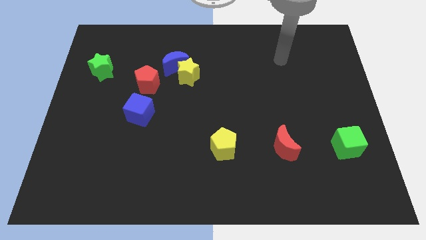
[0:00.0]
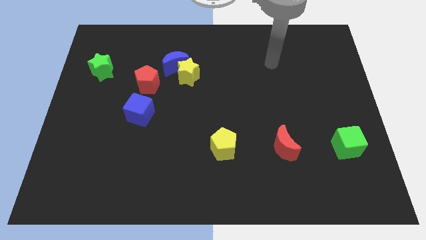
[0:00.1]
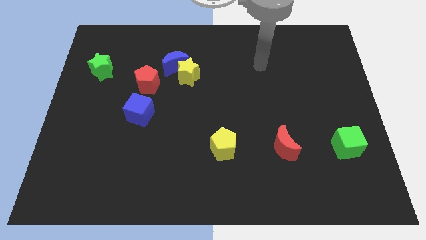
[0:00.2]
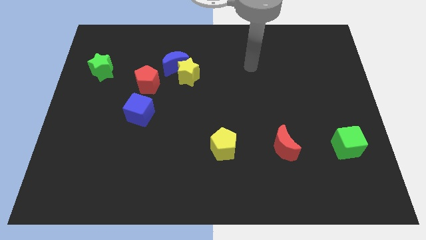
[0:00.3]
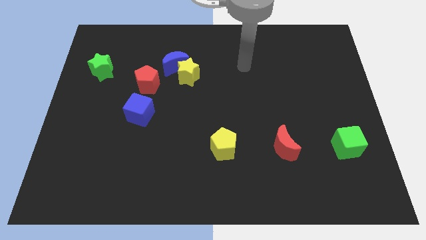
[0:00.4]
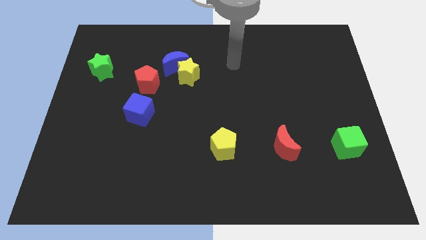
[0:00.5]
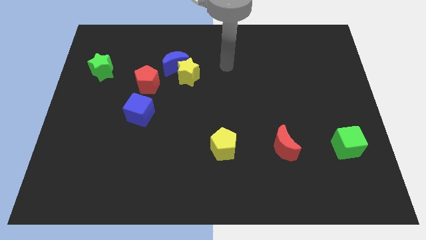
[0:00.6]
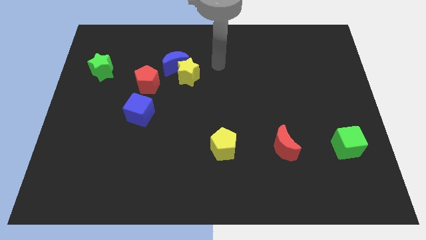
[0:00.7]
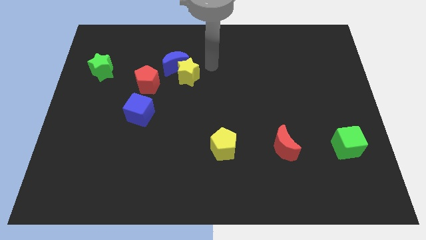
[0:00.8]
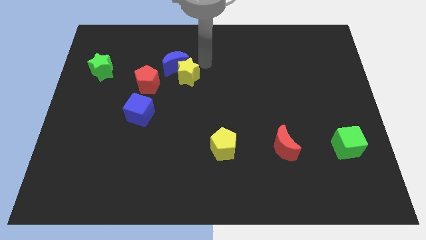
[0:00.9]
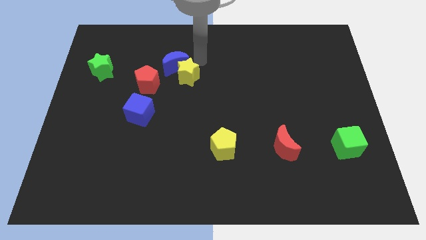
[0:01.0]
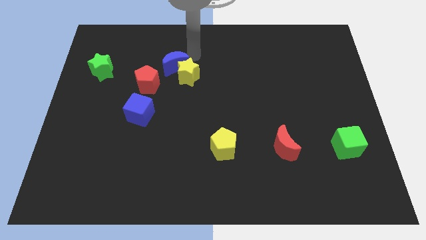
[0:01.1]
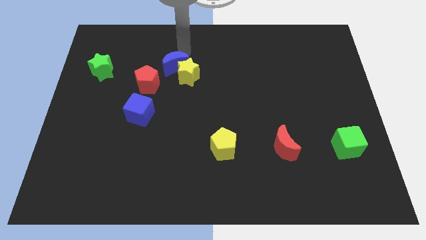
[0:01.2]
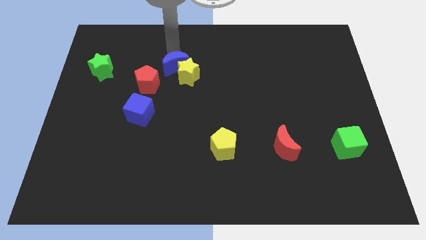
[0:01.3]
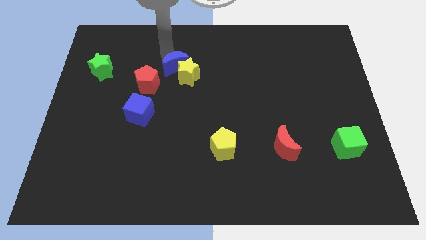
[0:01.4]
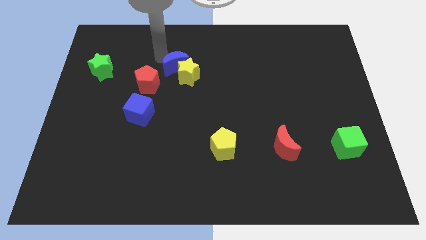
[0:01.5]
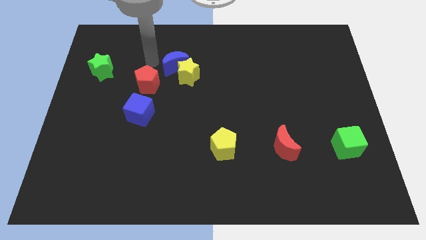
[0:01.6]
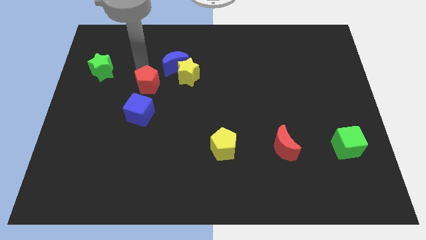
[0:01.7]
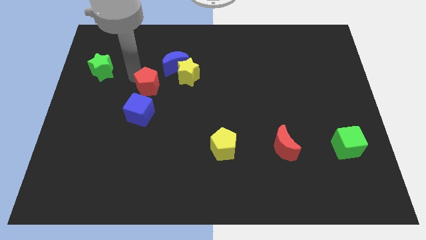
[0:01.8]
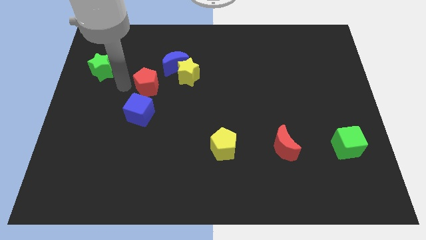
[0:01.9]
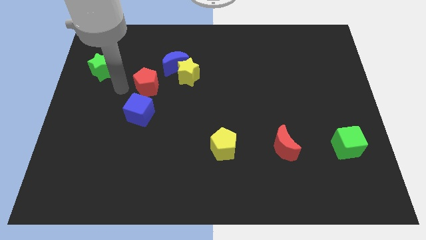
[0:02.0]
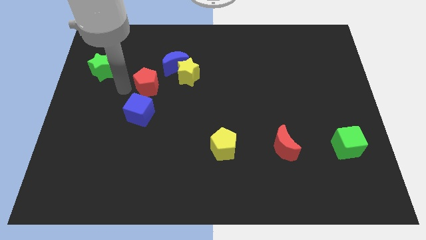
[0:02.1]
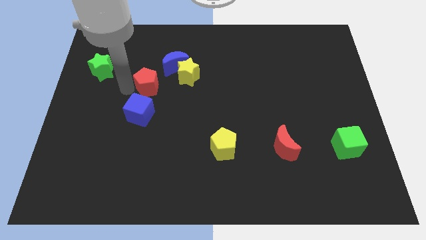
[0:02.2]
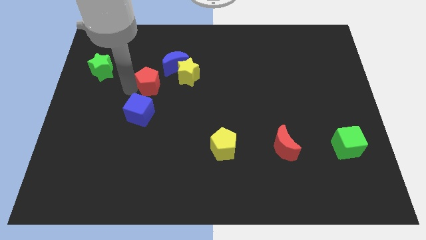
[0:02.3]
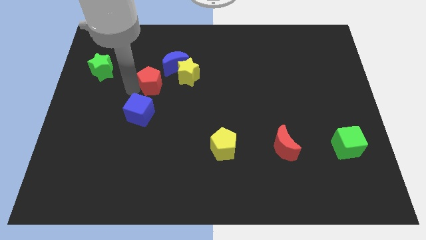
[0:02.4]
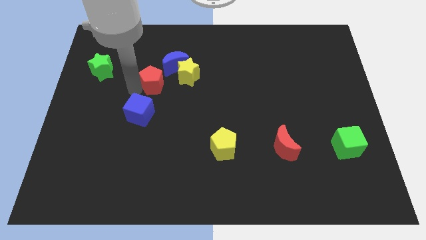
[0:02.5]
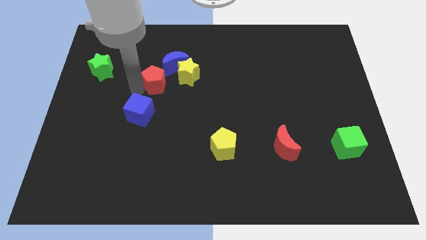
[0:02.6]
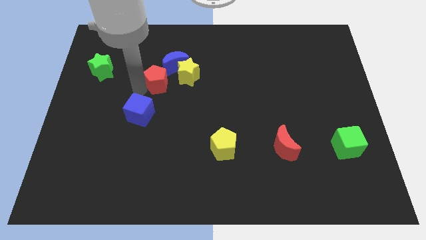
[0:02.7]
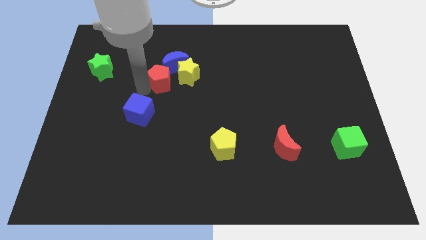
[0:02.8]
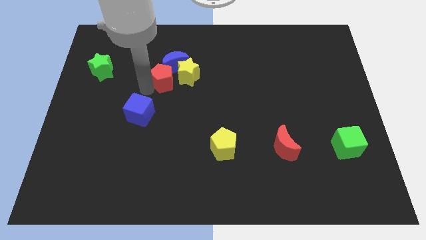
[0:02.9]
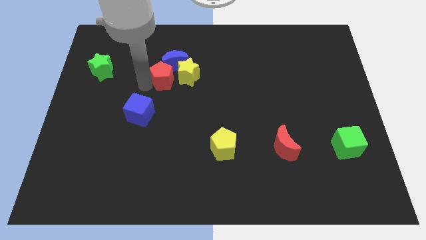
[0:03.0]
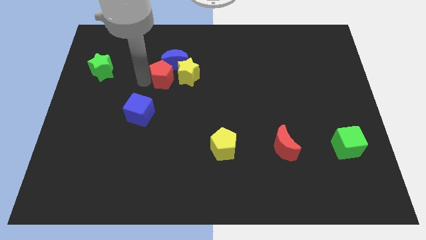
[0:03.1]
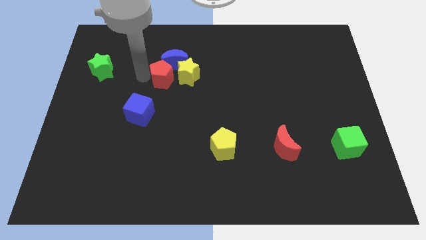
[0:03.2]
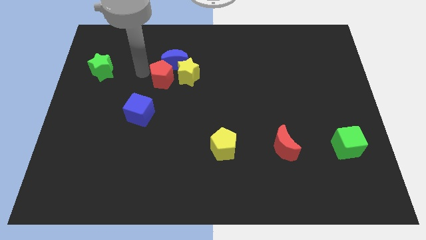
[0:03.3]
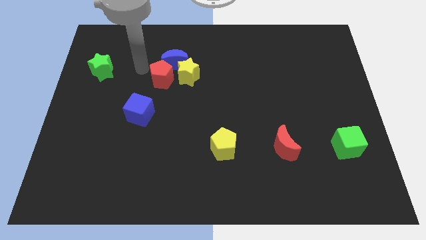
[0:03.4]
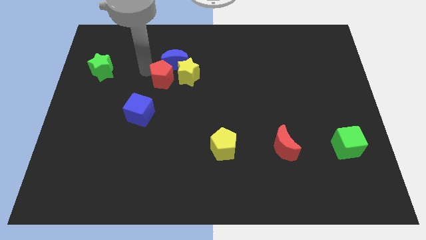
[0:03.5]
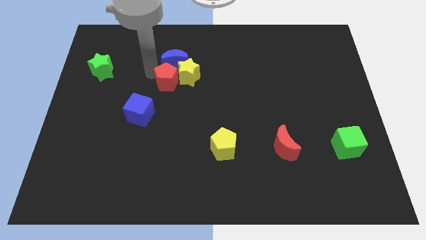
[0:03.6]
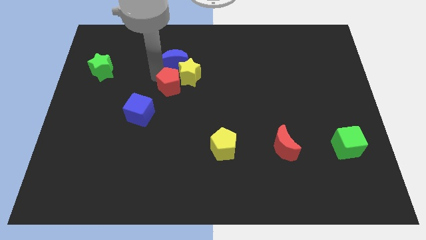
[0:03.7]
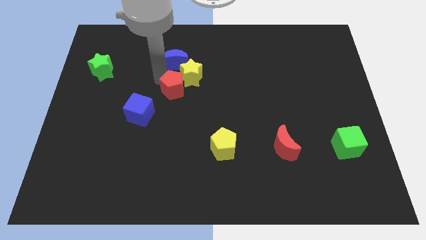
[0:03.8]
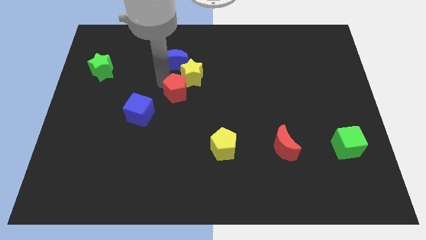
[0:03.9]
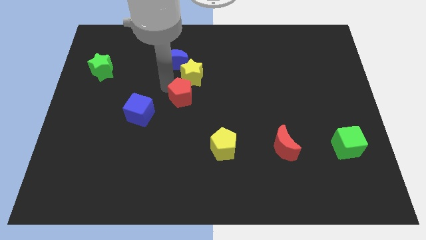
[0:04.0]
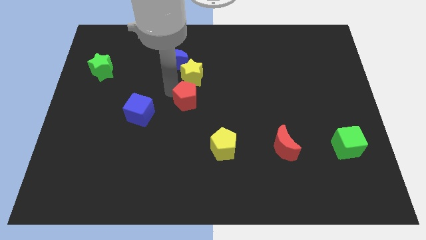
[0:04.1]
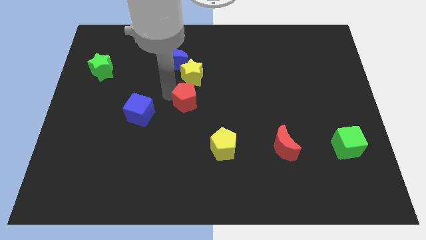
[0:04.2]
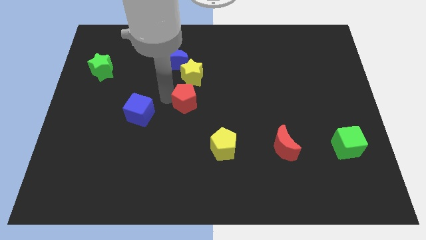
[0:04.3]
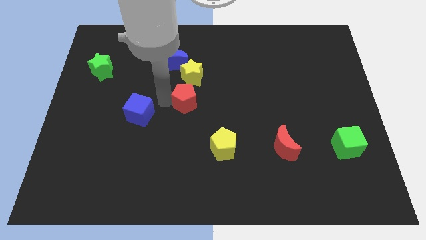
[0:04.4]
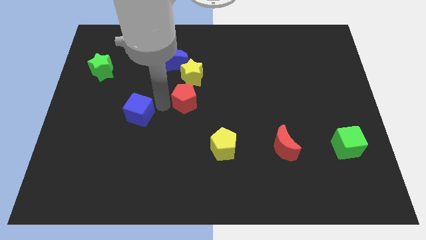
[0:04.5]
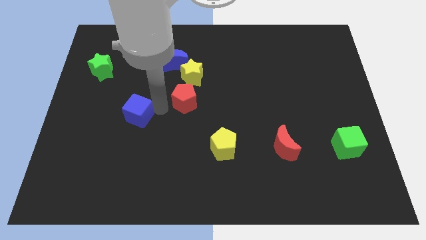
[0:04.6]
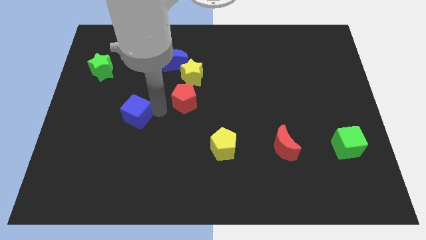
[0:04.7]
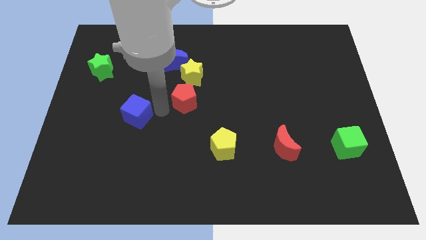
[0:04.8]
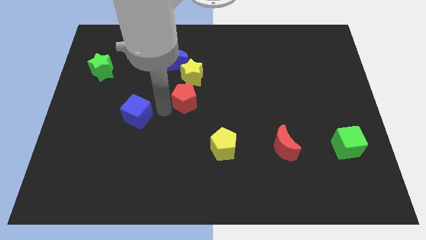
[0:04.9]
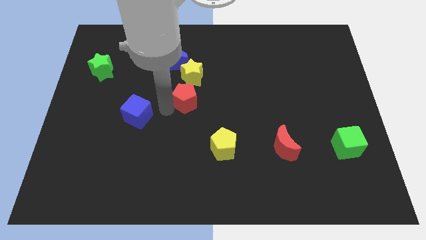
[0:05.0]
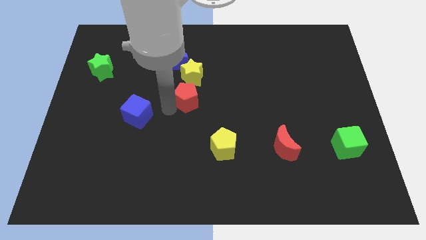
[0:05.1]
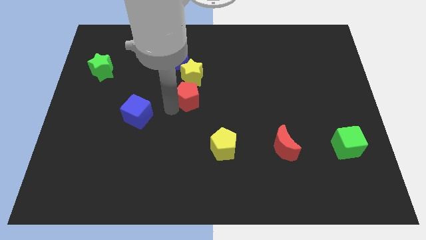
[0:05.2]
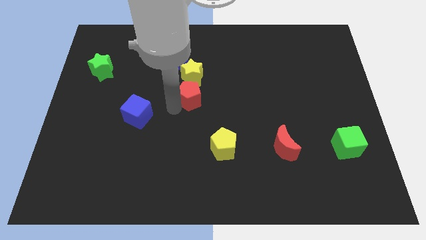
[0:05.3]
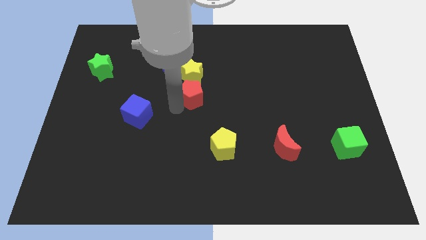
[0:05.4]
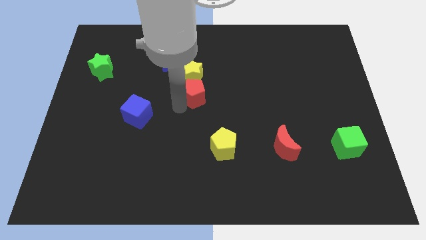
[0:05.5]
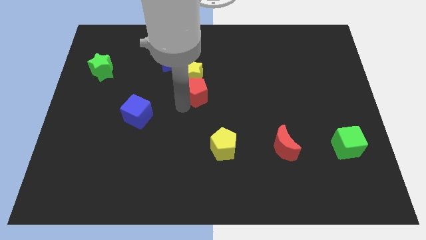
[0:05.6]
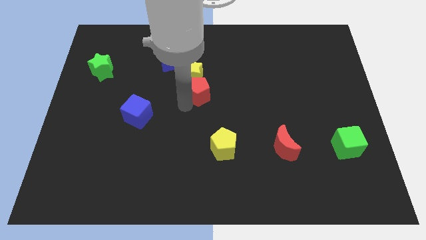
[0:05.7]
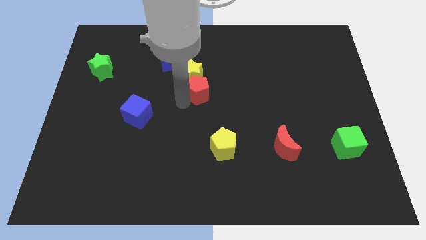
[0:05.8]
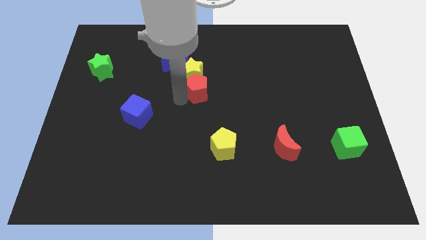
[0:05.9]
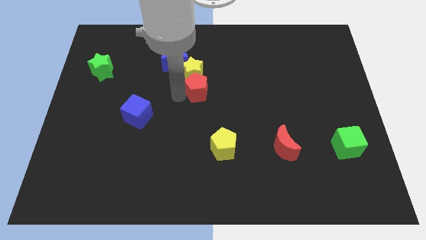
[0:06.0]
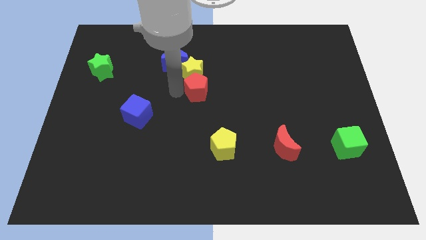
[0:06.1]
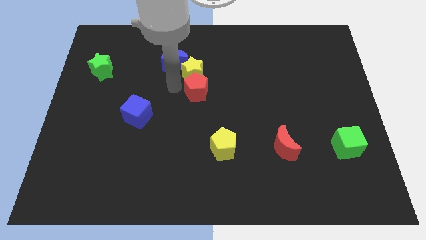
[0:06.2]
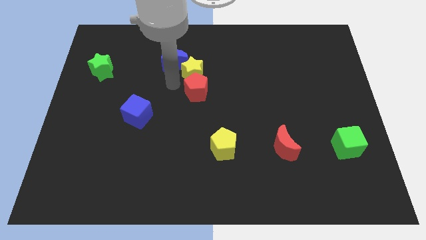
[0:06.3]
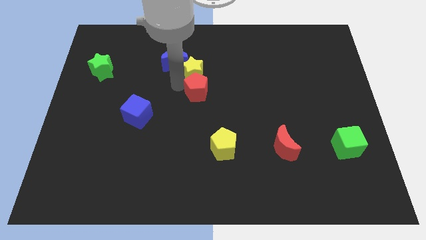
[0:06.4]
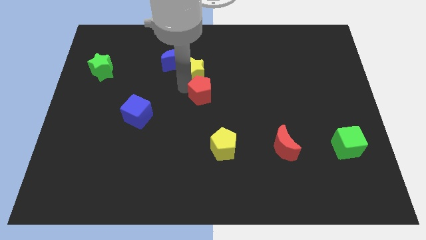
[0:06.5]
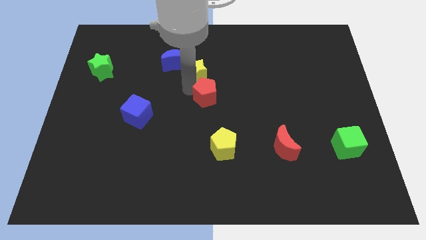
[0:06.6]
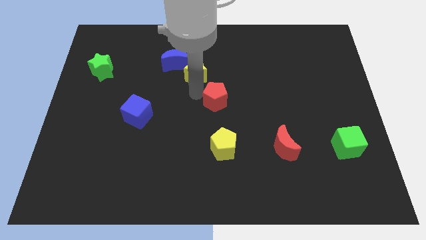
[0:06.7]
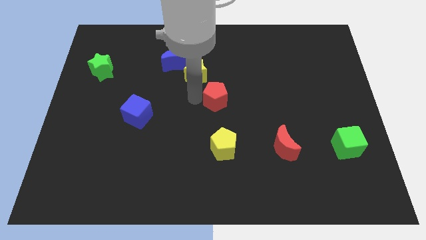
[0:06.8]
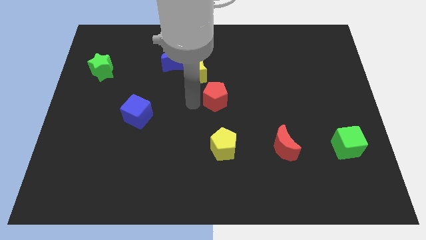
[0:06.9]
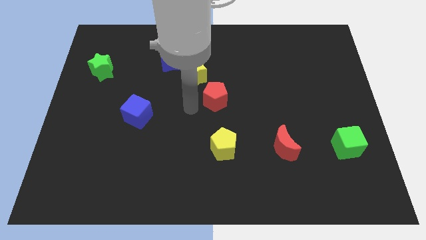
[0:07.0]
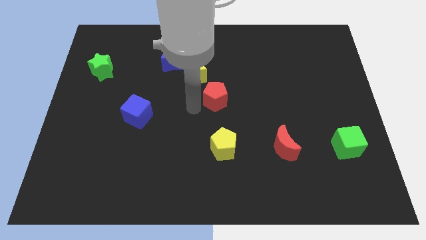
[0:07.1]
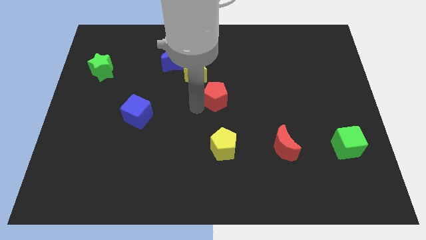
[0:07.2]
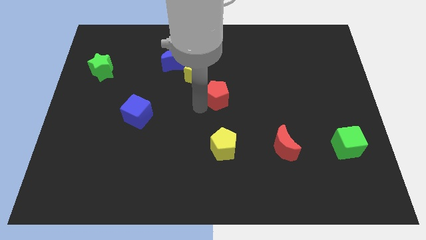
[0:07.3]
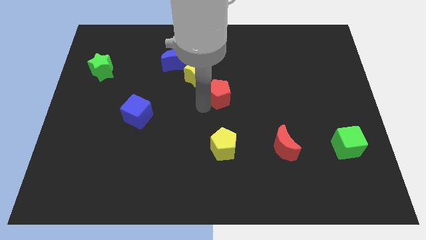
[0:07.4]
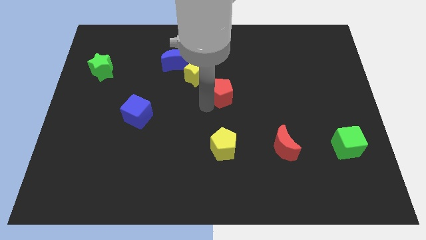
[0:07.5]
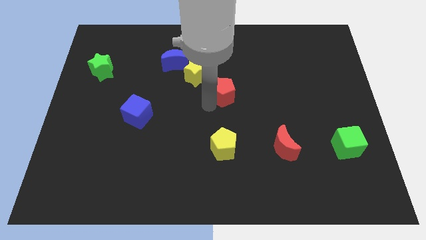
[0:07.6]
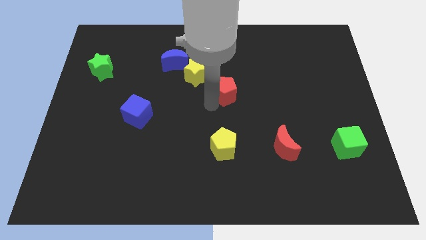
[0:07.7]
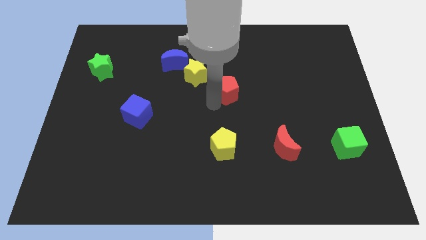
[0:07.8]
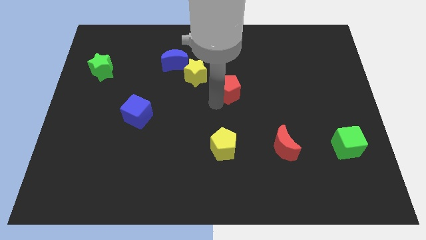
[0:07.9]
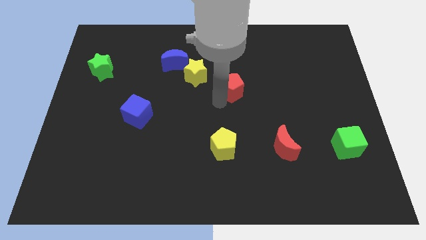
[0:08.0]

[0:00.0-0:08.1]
move the red pentagon to the right
